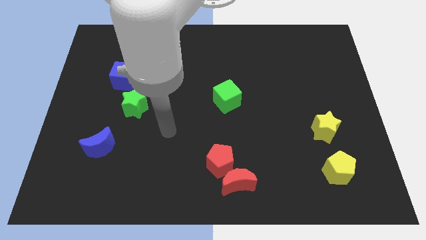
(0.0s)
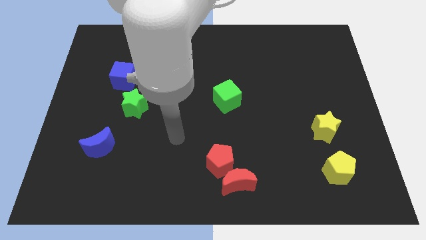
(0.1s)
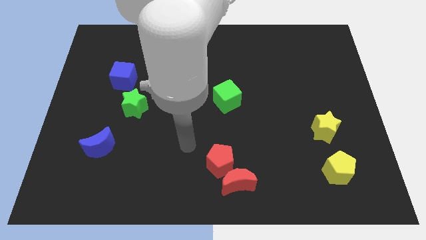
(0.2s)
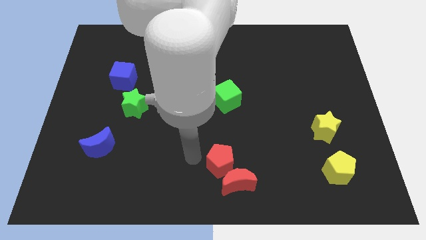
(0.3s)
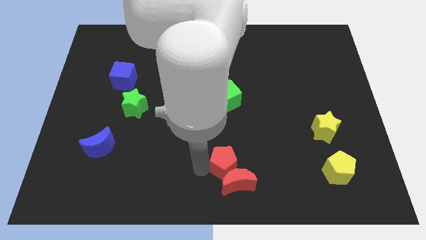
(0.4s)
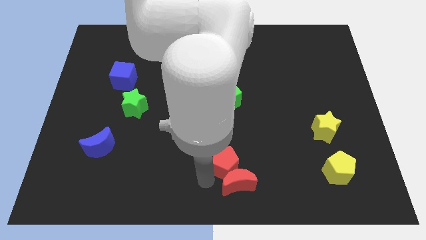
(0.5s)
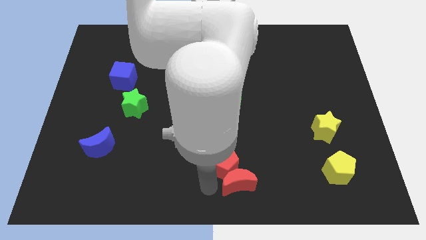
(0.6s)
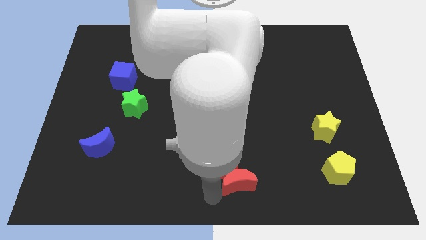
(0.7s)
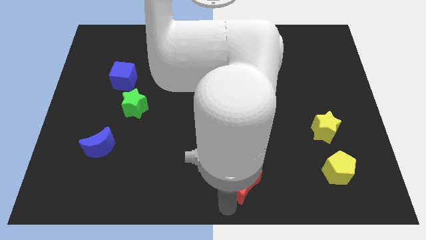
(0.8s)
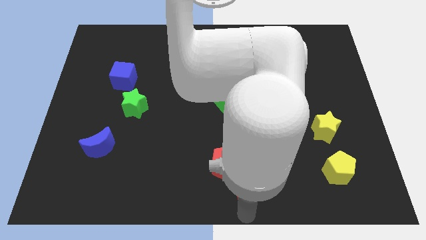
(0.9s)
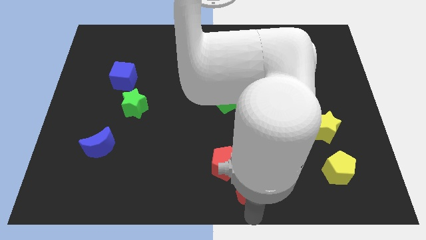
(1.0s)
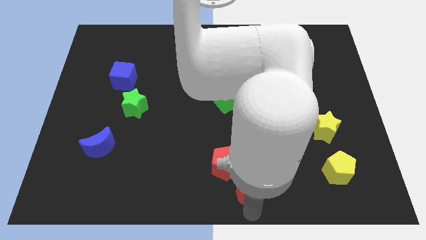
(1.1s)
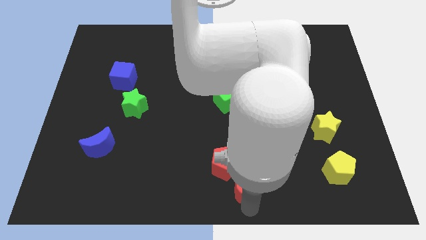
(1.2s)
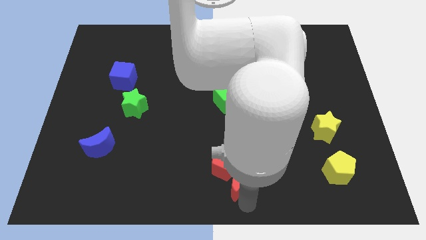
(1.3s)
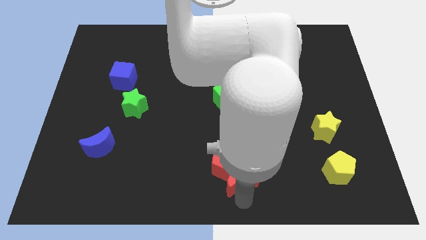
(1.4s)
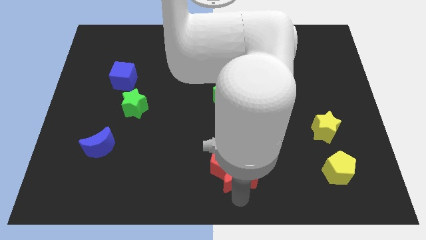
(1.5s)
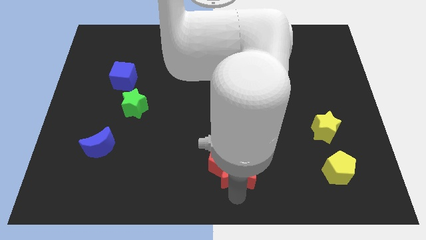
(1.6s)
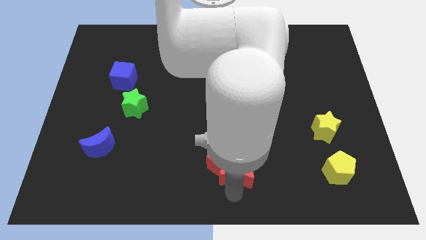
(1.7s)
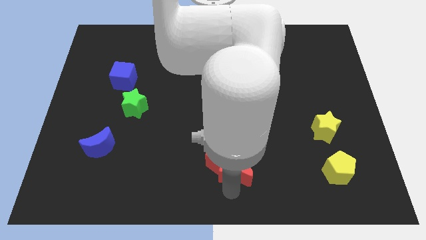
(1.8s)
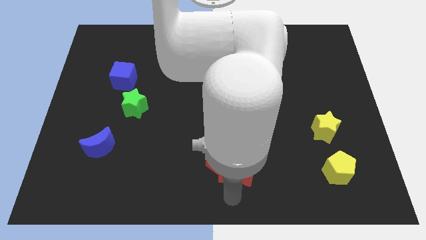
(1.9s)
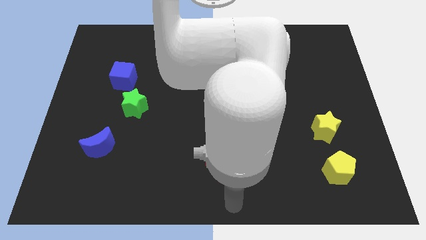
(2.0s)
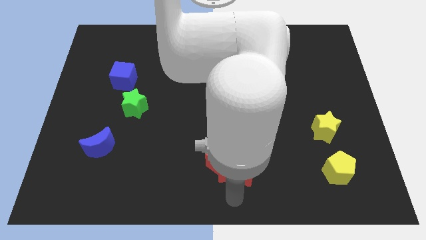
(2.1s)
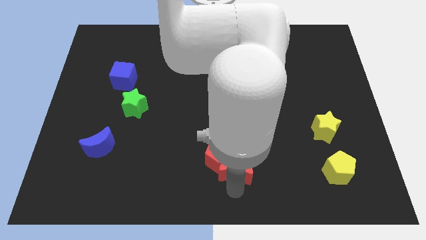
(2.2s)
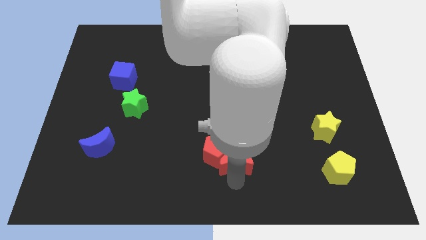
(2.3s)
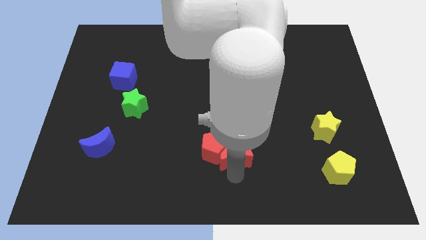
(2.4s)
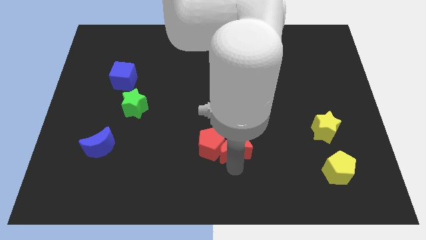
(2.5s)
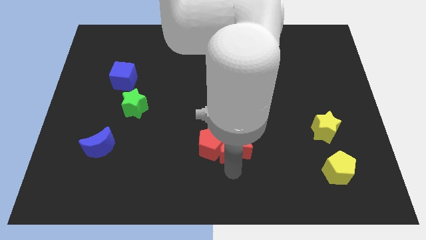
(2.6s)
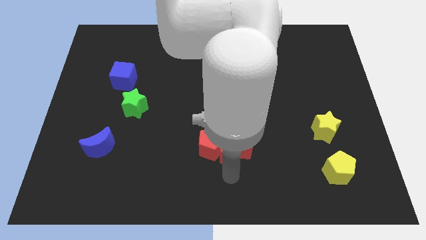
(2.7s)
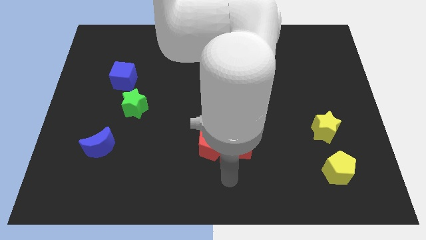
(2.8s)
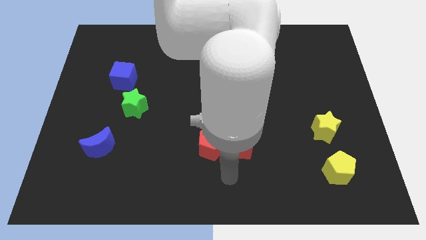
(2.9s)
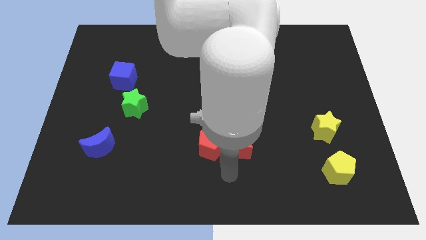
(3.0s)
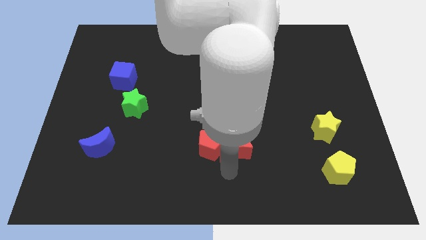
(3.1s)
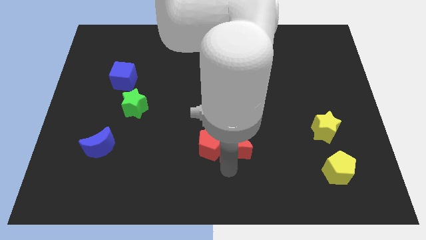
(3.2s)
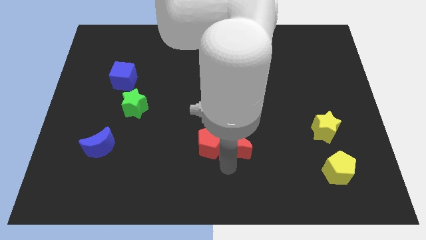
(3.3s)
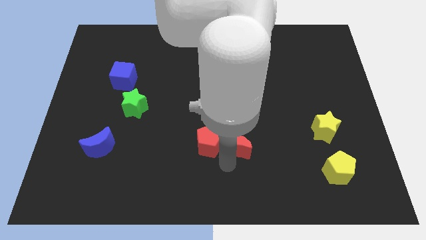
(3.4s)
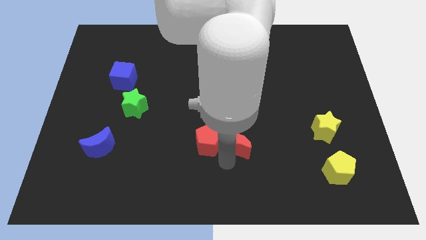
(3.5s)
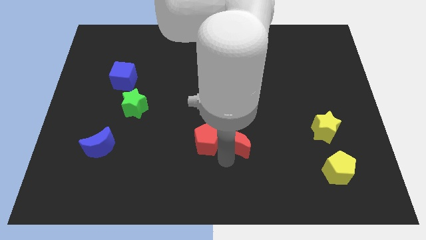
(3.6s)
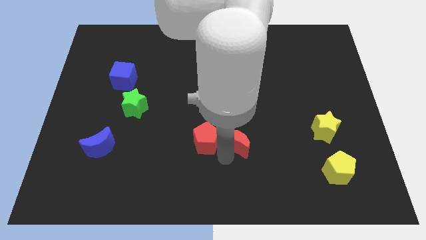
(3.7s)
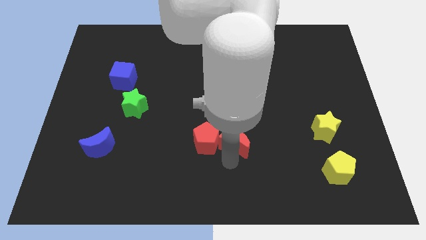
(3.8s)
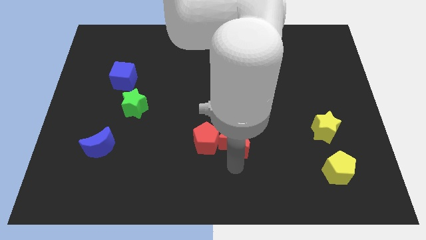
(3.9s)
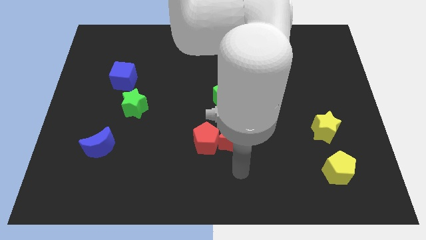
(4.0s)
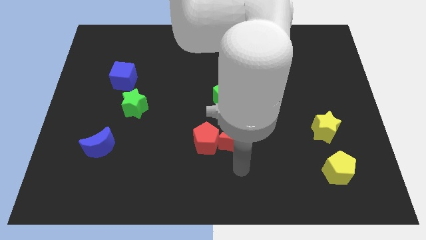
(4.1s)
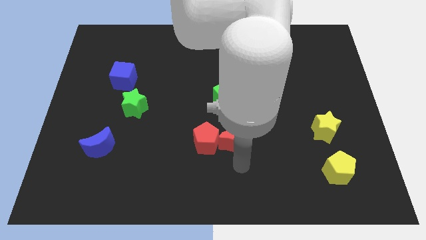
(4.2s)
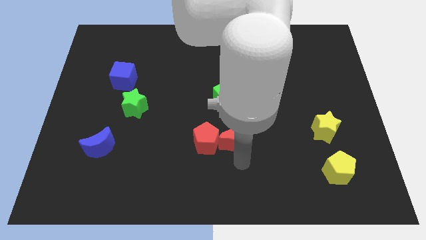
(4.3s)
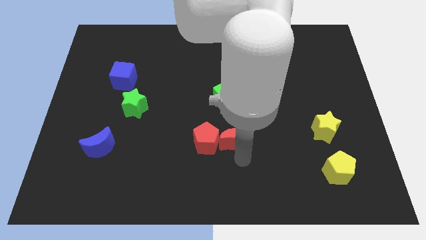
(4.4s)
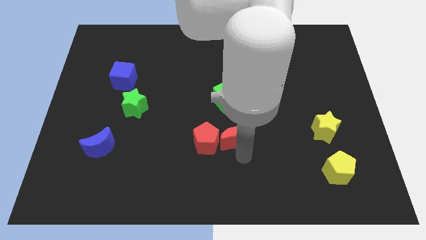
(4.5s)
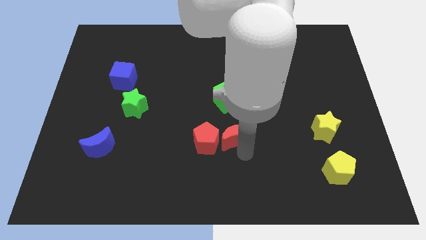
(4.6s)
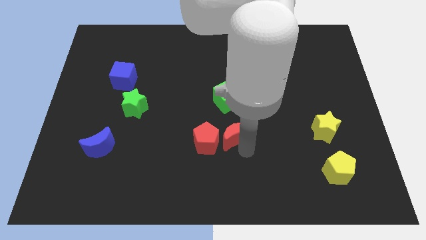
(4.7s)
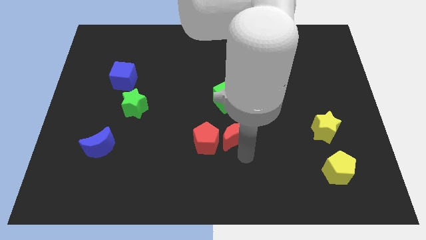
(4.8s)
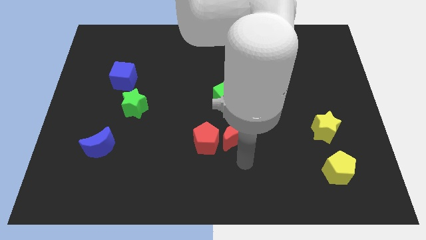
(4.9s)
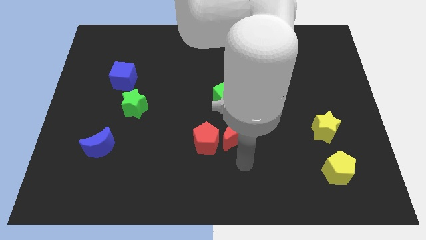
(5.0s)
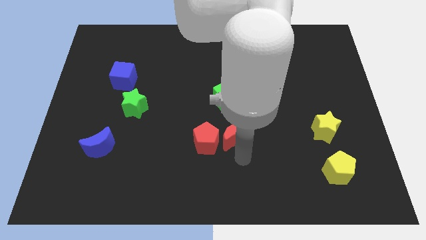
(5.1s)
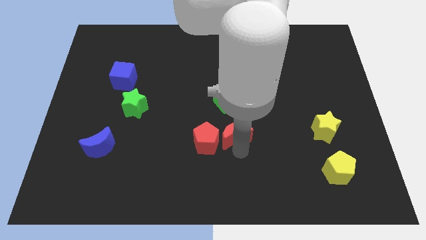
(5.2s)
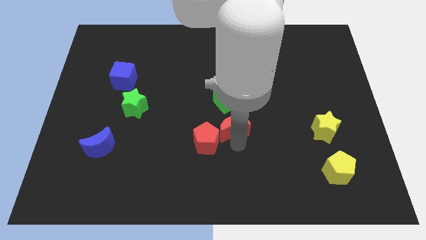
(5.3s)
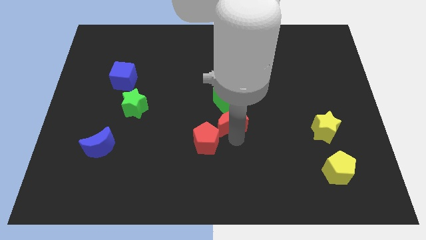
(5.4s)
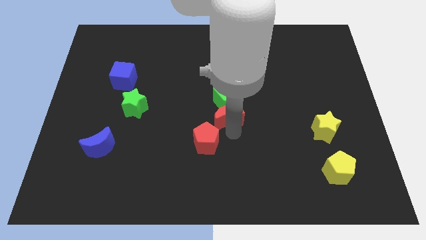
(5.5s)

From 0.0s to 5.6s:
push the red moon to the green cube

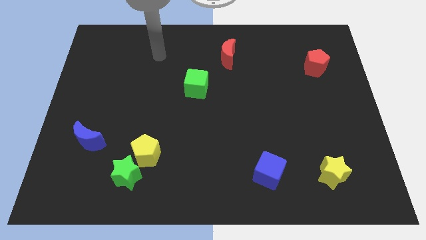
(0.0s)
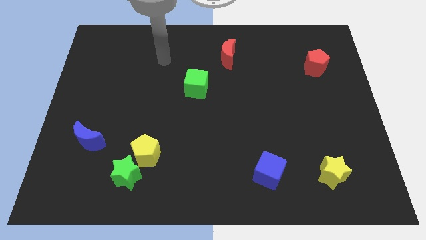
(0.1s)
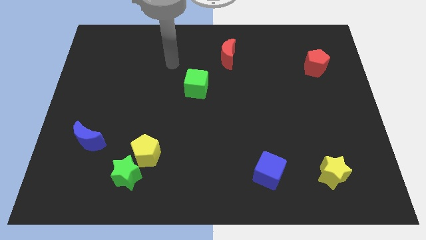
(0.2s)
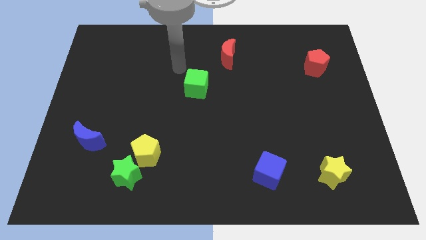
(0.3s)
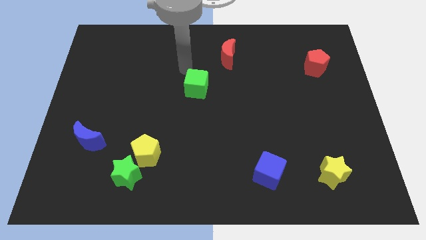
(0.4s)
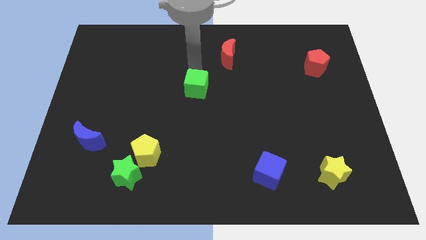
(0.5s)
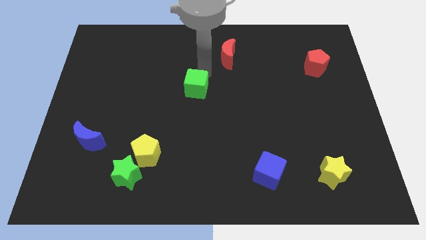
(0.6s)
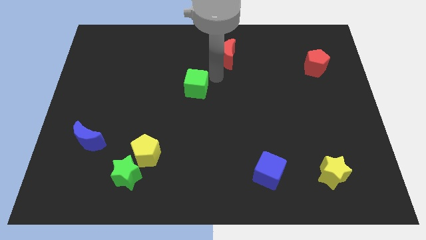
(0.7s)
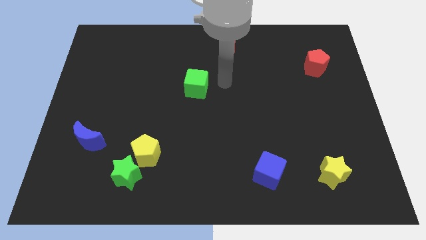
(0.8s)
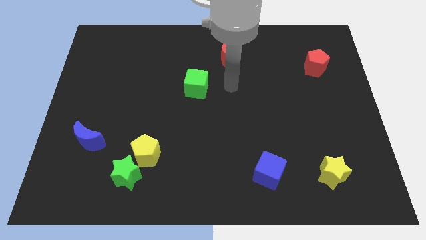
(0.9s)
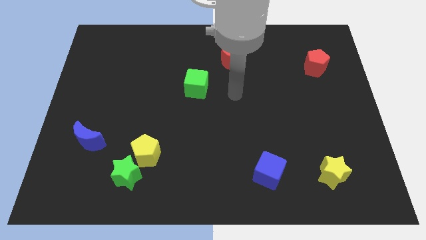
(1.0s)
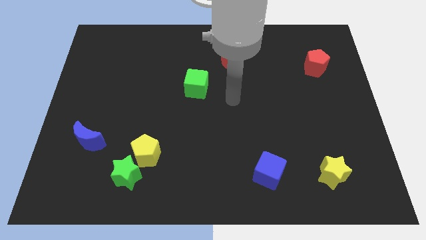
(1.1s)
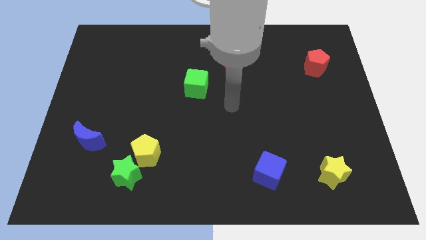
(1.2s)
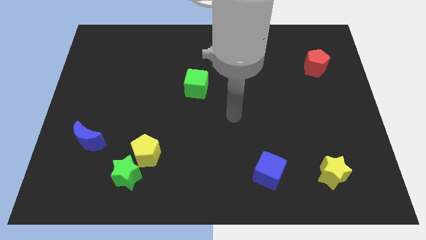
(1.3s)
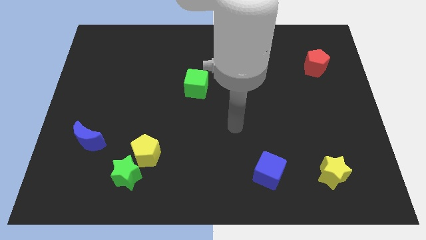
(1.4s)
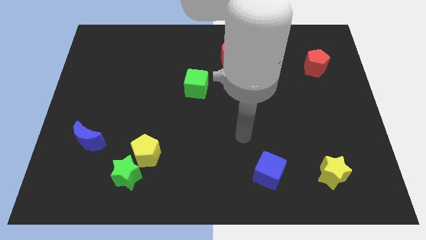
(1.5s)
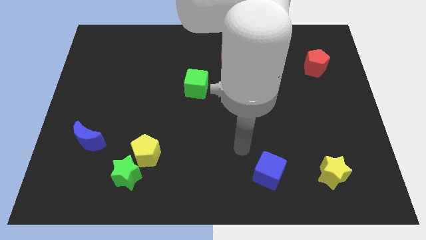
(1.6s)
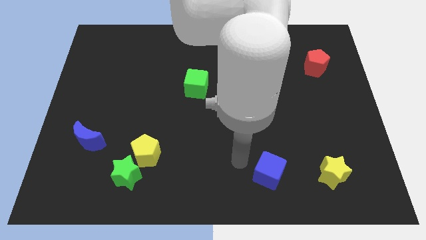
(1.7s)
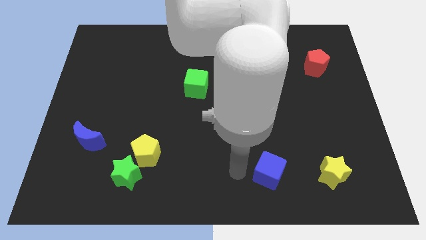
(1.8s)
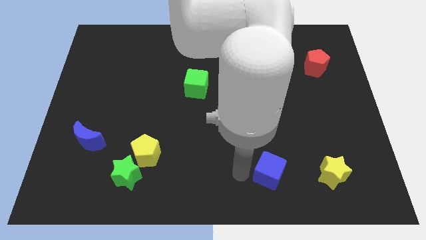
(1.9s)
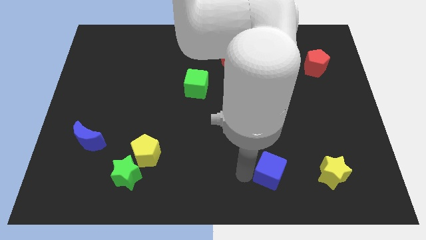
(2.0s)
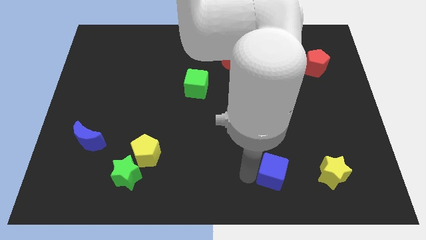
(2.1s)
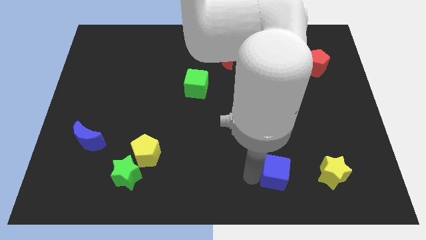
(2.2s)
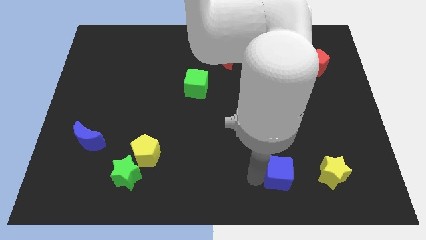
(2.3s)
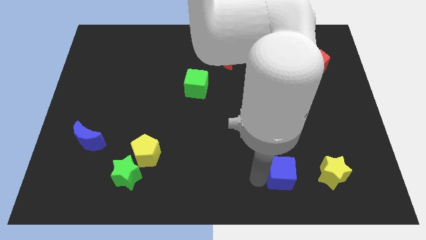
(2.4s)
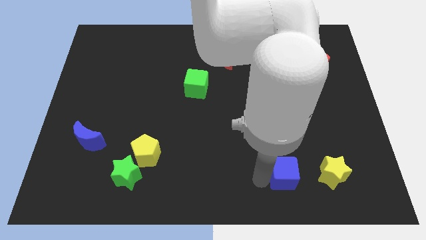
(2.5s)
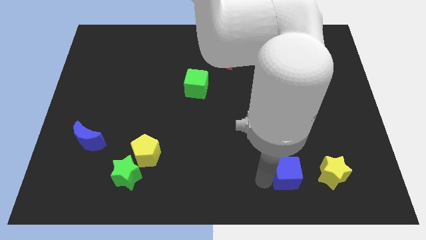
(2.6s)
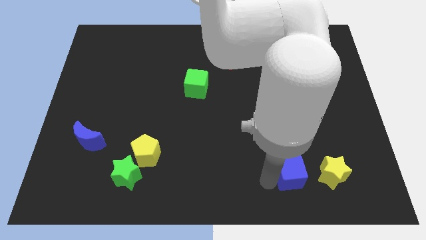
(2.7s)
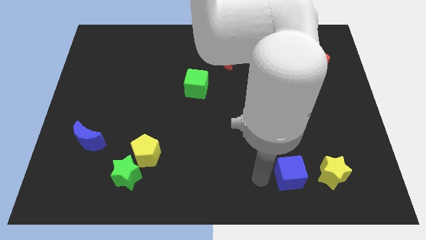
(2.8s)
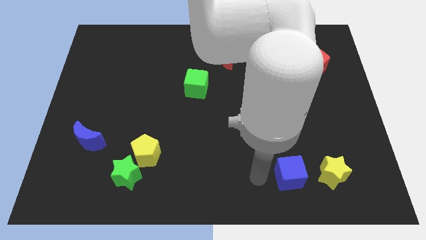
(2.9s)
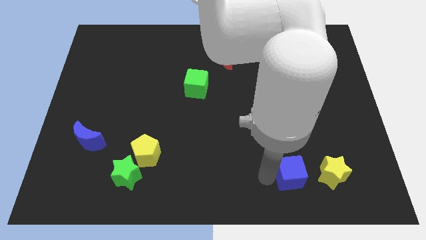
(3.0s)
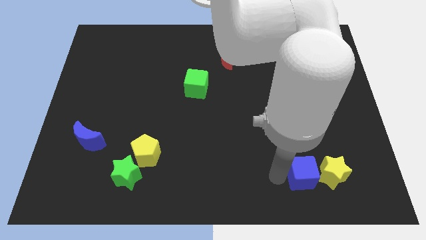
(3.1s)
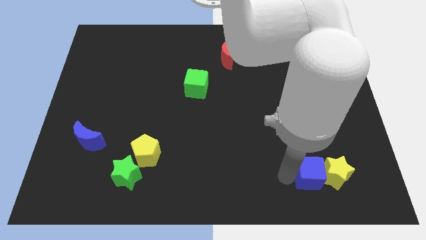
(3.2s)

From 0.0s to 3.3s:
move the blue cube towards the yellow star
